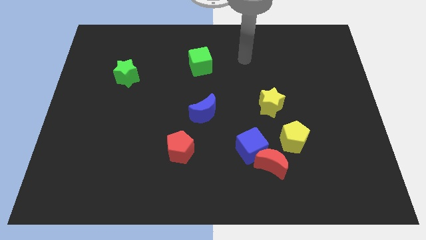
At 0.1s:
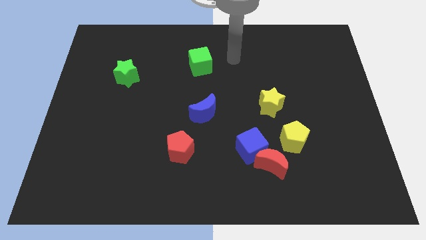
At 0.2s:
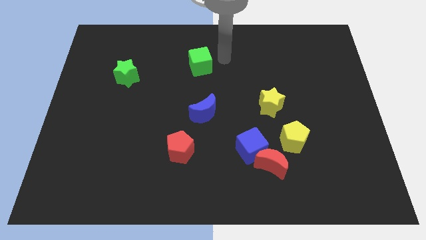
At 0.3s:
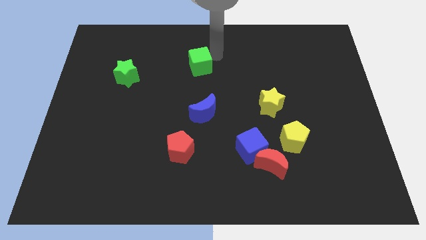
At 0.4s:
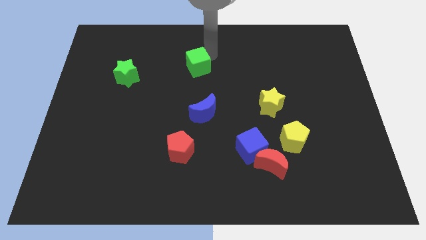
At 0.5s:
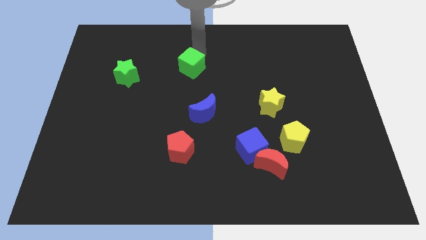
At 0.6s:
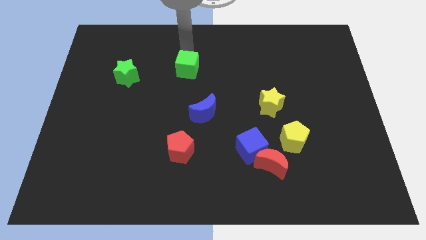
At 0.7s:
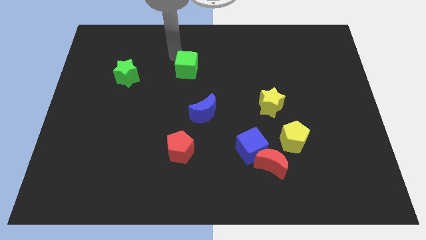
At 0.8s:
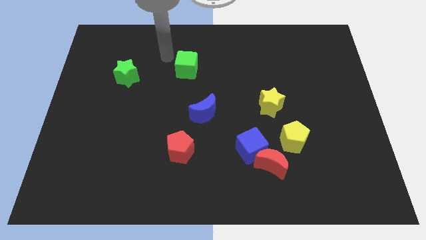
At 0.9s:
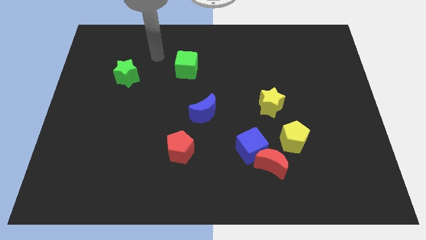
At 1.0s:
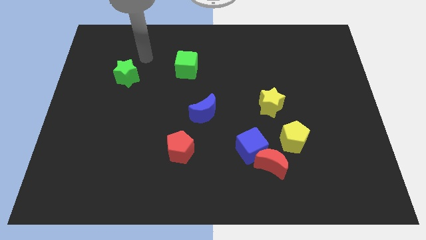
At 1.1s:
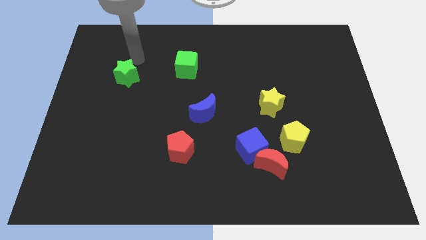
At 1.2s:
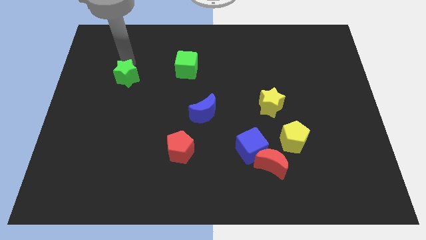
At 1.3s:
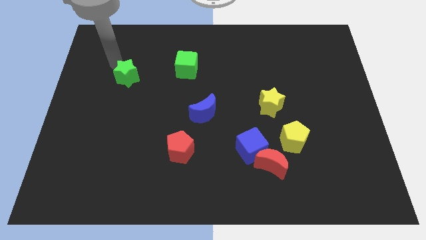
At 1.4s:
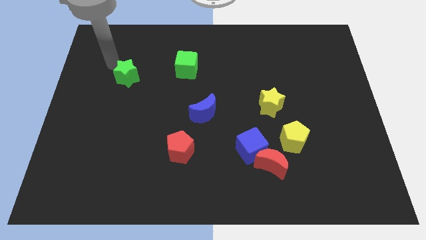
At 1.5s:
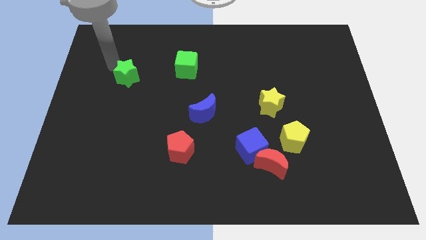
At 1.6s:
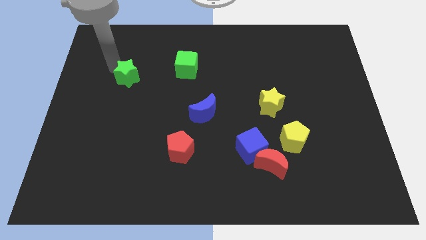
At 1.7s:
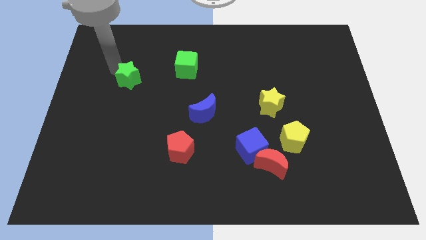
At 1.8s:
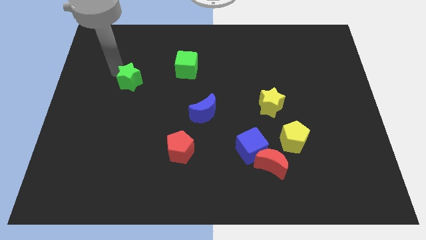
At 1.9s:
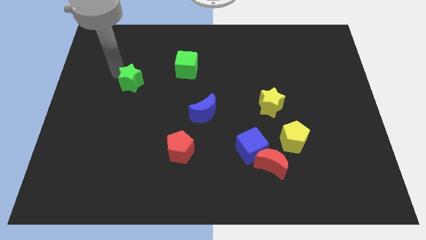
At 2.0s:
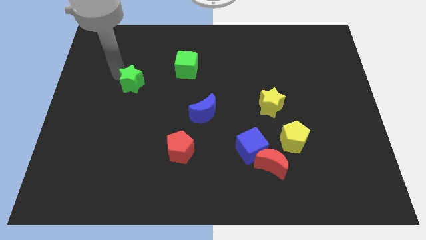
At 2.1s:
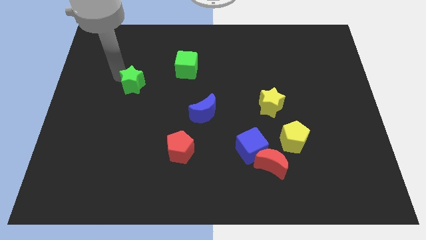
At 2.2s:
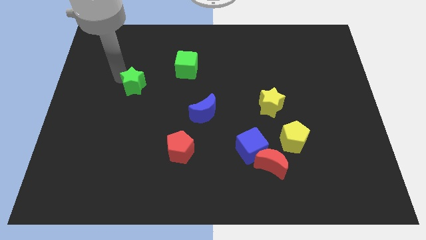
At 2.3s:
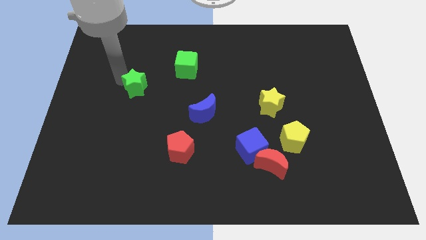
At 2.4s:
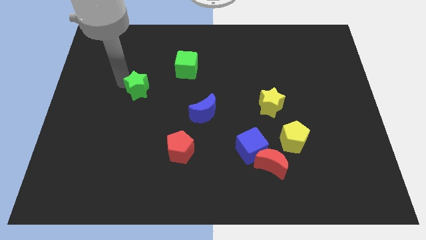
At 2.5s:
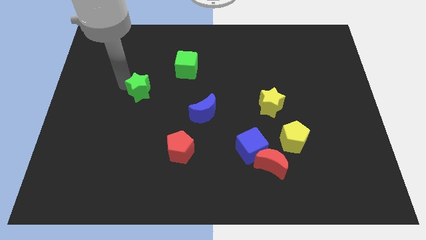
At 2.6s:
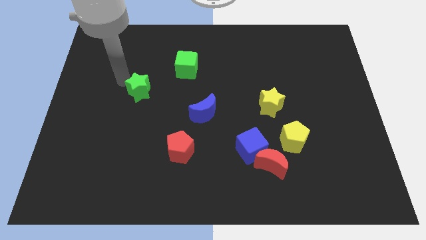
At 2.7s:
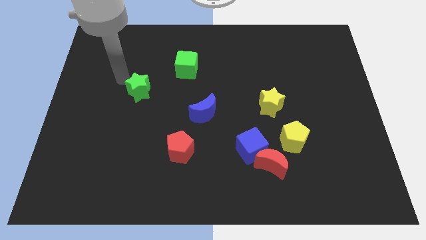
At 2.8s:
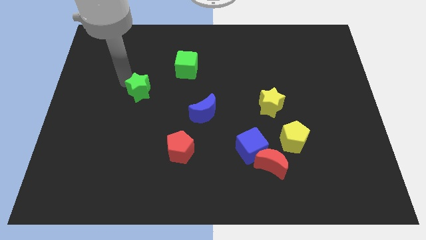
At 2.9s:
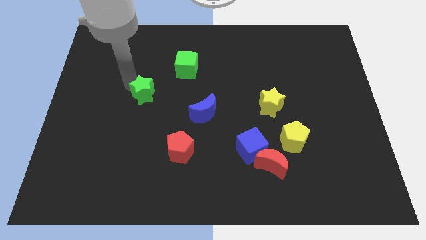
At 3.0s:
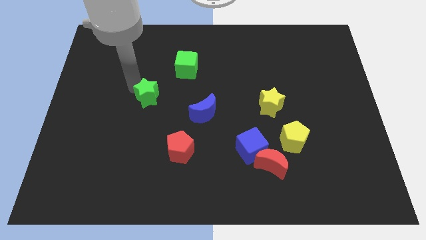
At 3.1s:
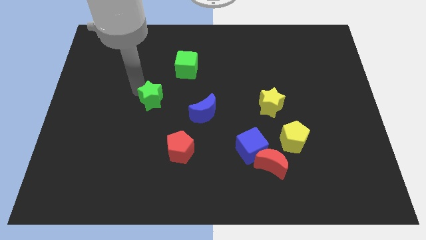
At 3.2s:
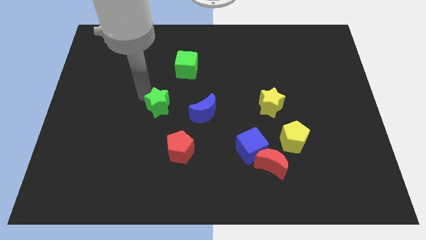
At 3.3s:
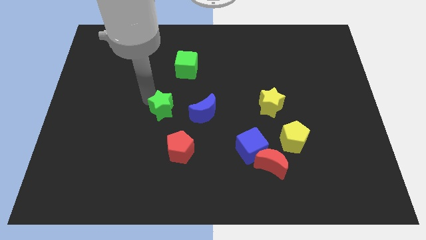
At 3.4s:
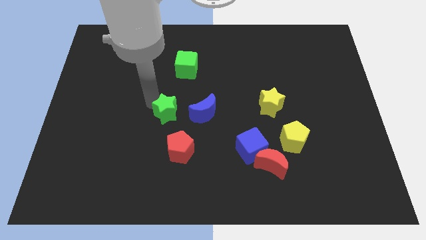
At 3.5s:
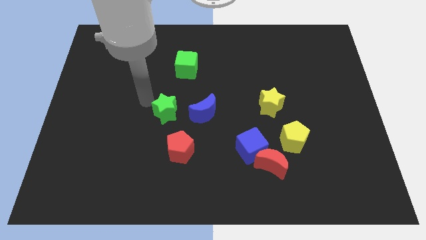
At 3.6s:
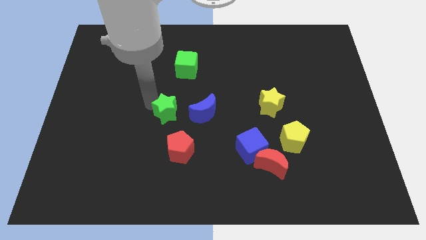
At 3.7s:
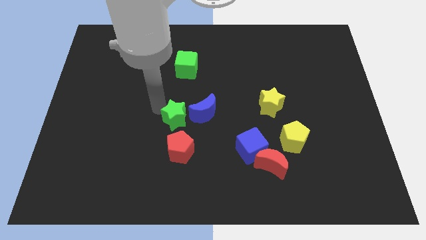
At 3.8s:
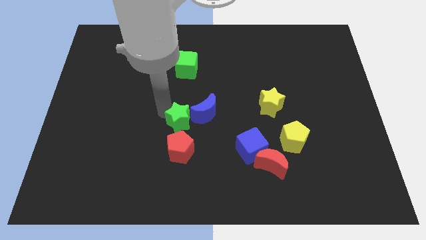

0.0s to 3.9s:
move the green star down and right

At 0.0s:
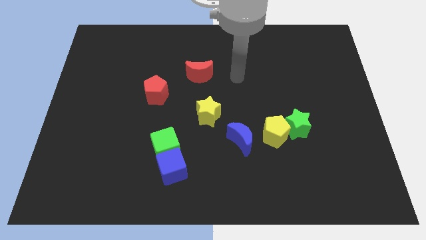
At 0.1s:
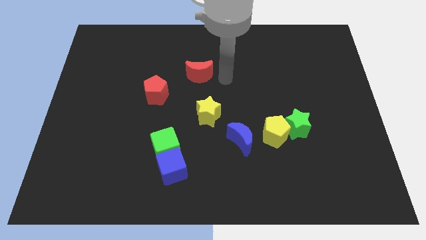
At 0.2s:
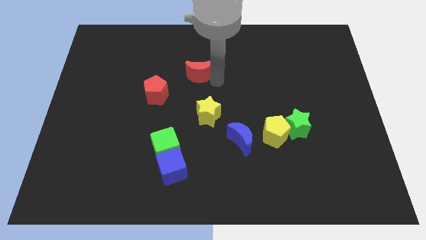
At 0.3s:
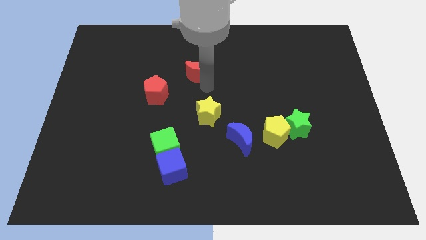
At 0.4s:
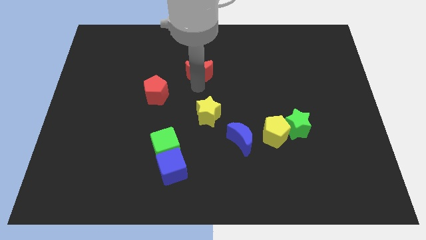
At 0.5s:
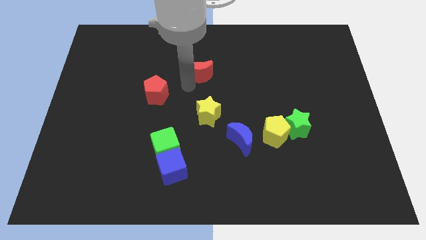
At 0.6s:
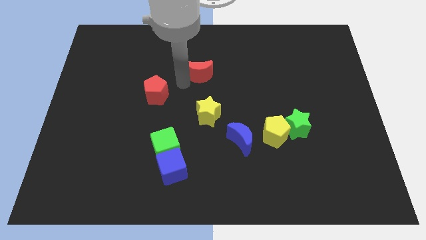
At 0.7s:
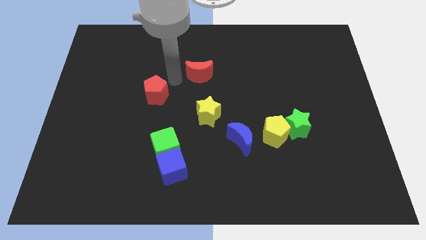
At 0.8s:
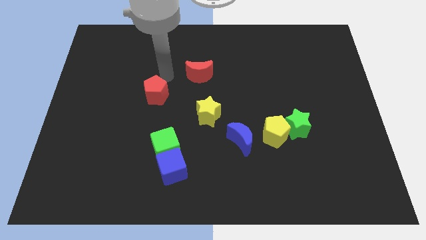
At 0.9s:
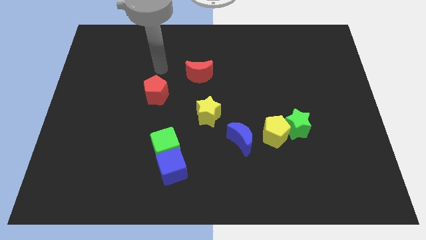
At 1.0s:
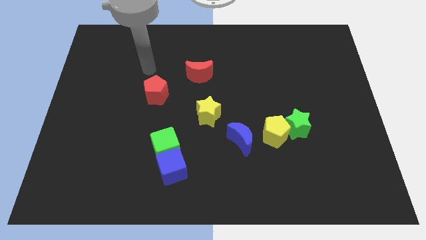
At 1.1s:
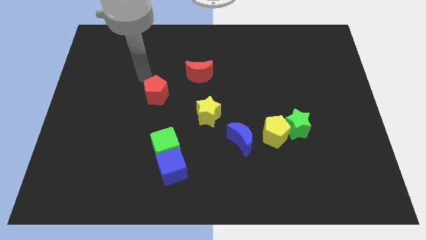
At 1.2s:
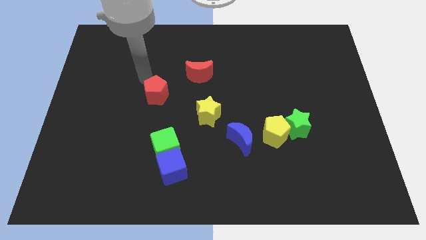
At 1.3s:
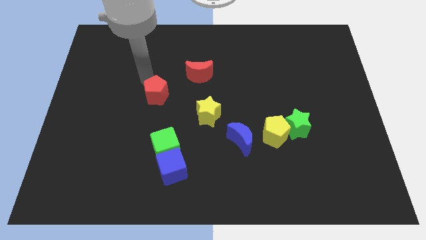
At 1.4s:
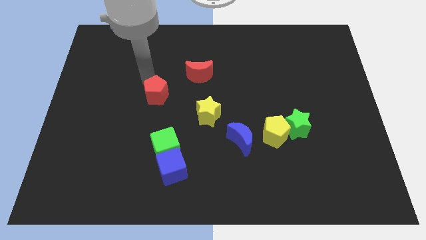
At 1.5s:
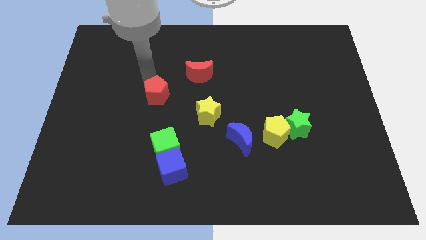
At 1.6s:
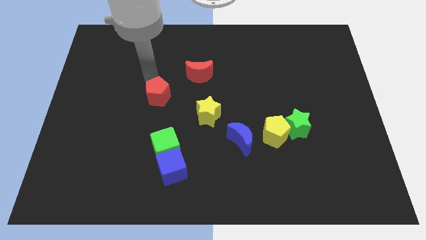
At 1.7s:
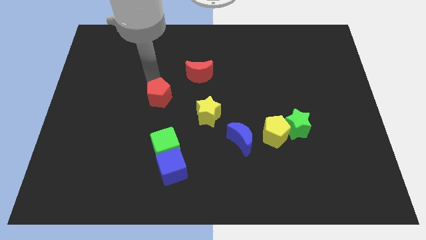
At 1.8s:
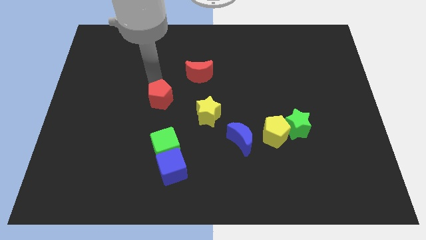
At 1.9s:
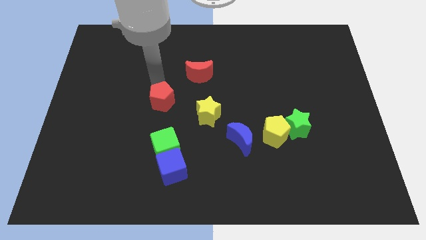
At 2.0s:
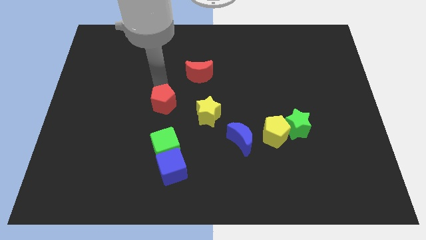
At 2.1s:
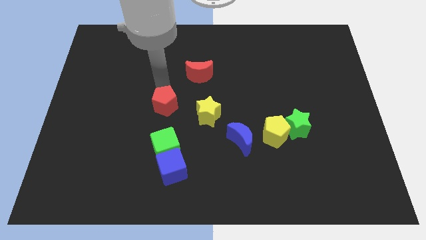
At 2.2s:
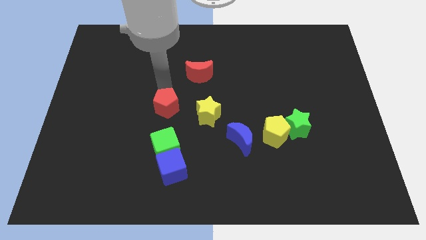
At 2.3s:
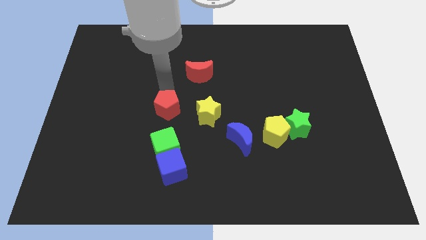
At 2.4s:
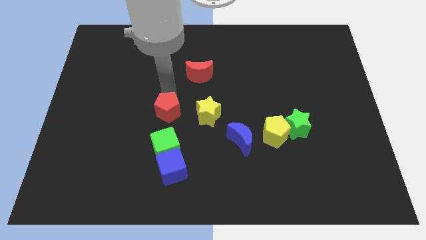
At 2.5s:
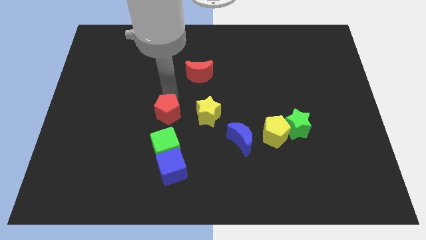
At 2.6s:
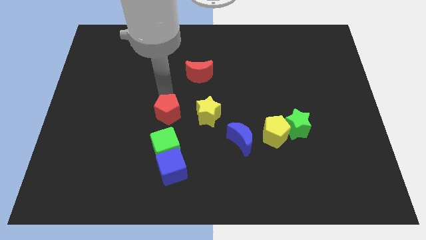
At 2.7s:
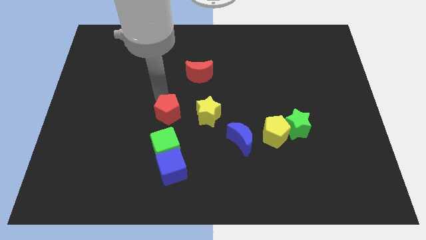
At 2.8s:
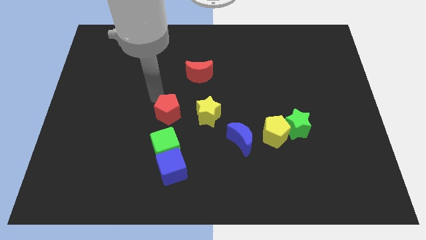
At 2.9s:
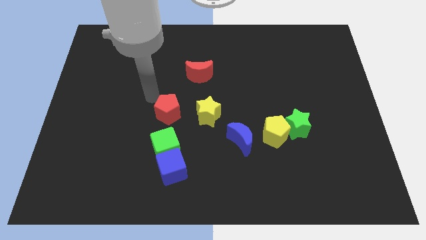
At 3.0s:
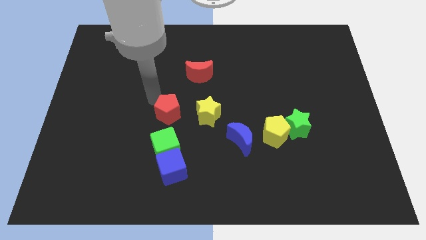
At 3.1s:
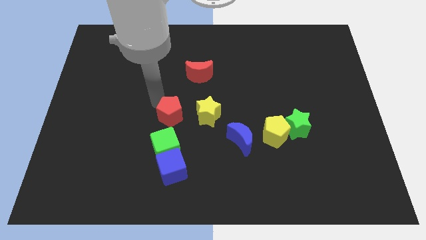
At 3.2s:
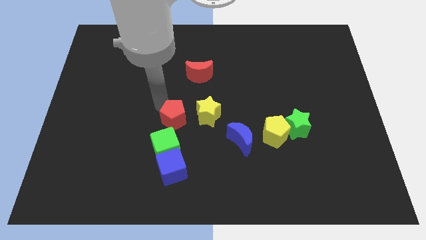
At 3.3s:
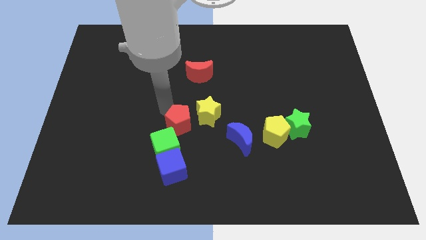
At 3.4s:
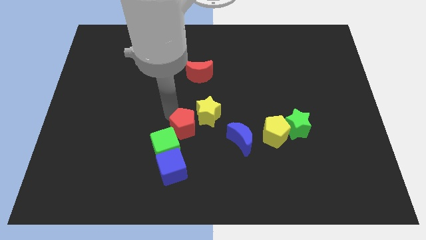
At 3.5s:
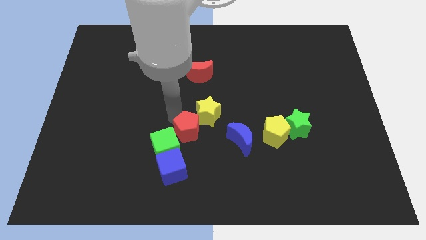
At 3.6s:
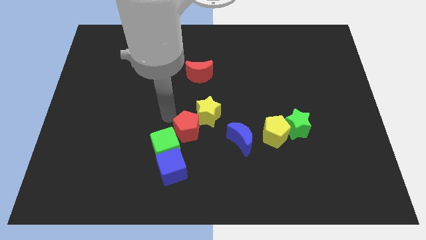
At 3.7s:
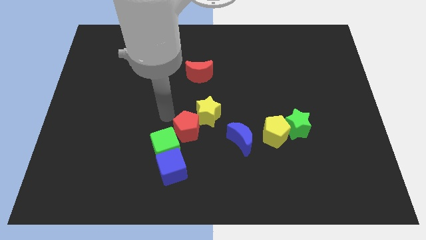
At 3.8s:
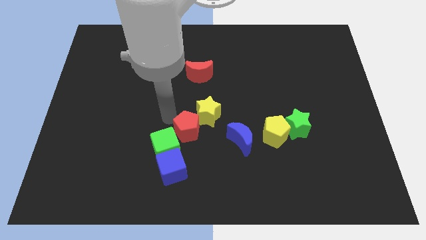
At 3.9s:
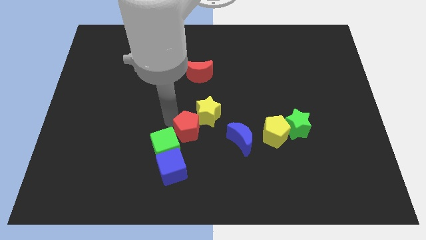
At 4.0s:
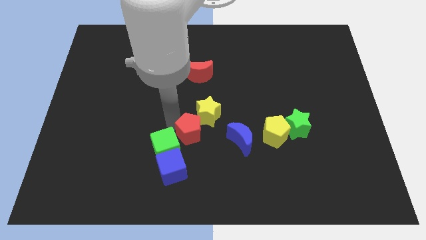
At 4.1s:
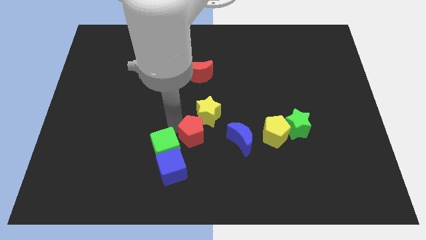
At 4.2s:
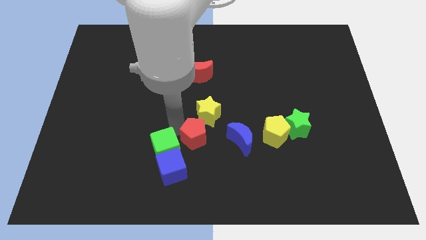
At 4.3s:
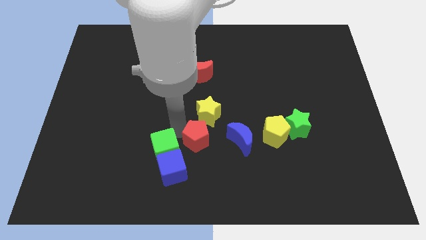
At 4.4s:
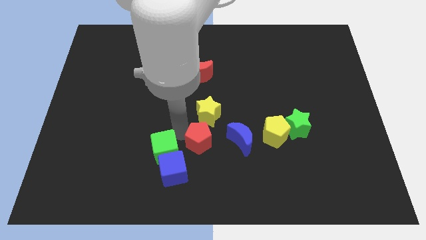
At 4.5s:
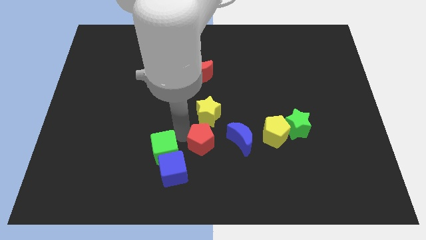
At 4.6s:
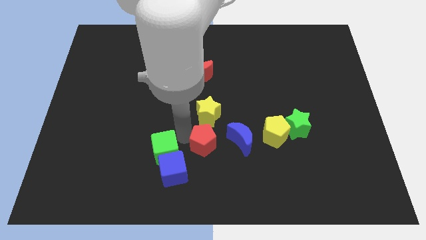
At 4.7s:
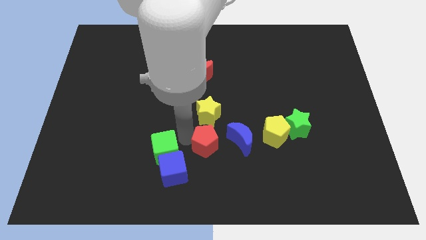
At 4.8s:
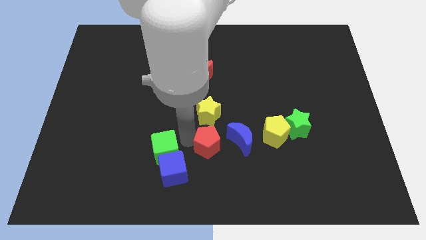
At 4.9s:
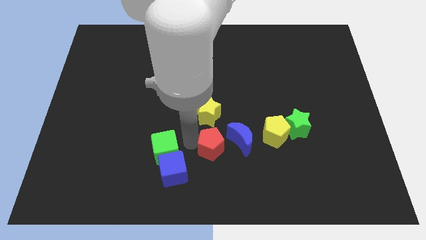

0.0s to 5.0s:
push the red pentagon down and to the right
